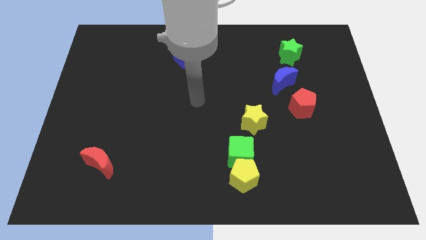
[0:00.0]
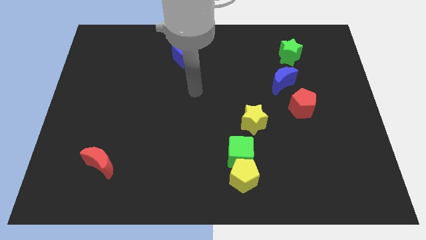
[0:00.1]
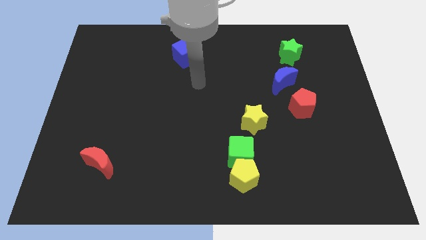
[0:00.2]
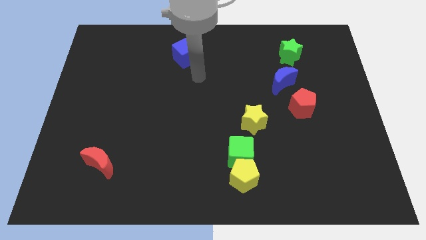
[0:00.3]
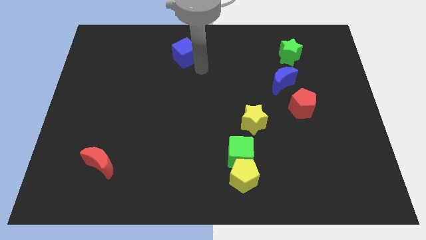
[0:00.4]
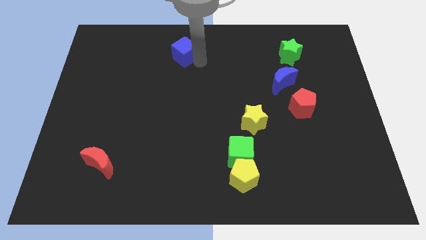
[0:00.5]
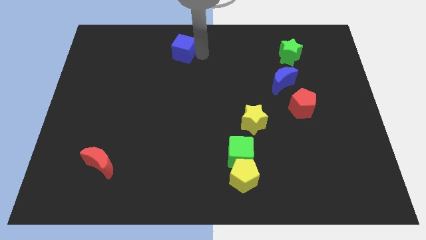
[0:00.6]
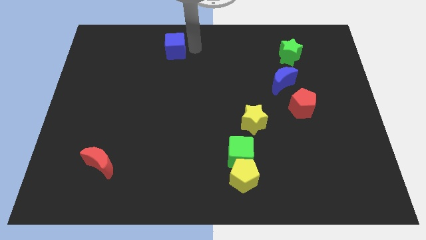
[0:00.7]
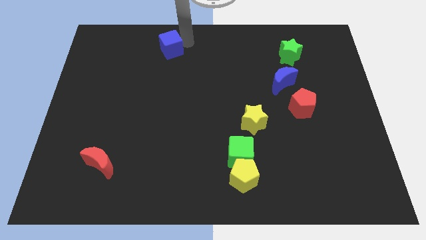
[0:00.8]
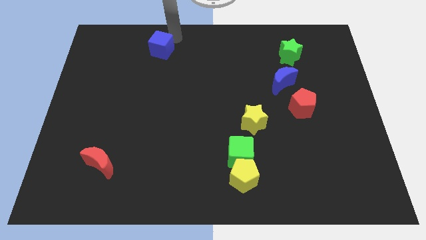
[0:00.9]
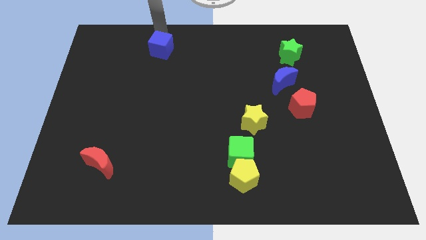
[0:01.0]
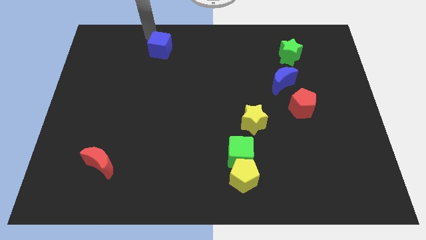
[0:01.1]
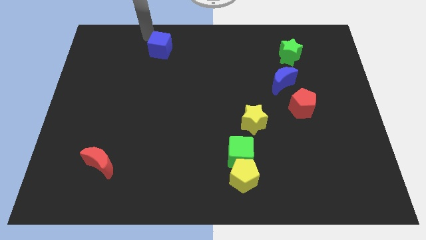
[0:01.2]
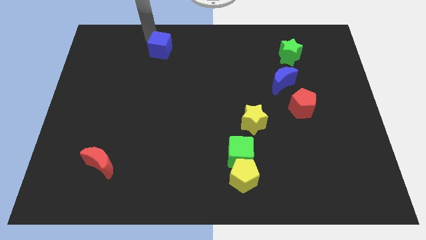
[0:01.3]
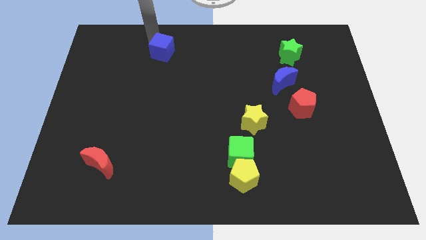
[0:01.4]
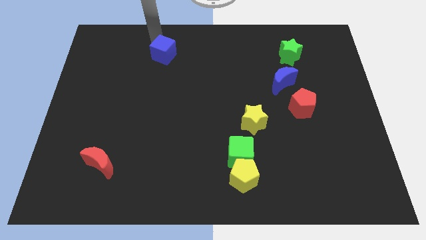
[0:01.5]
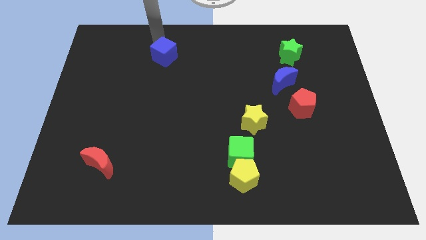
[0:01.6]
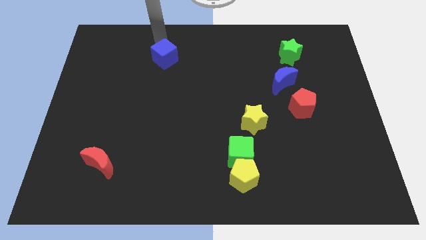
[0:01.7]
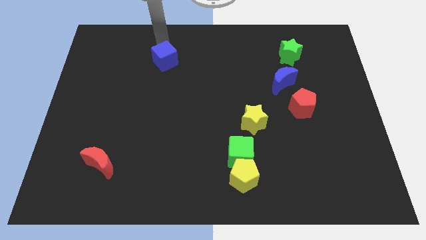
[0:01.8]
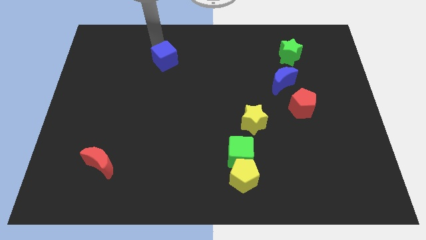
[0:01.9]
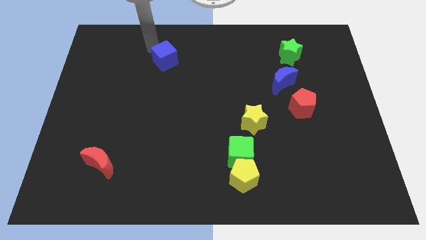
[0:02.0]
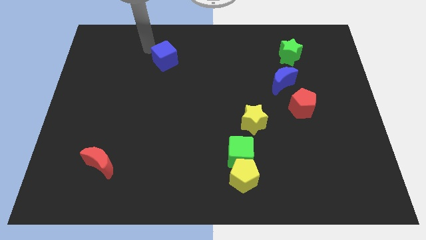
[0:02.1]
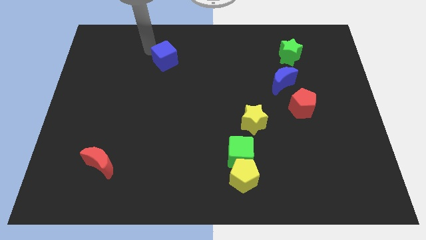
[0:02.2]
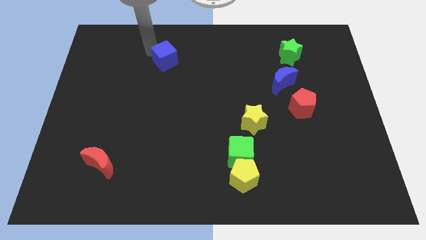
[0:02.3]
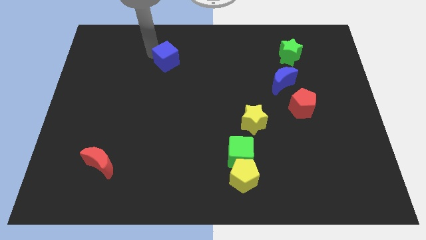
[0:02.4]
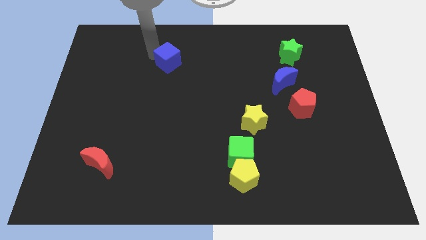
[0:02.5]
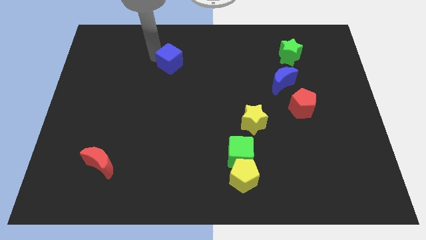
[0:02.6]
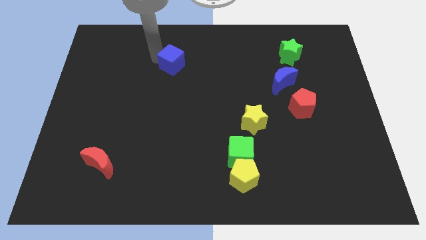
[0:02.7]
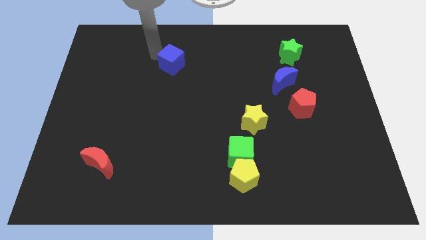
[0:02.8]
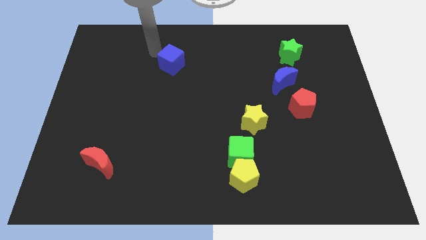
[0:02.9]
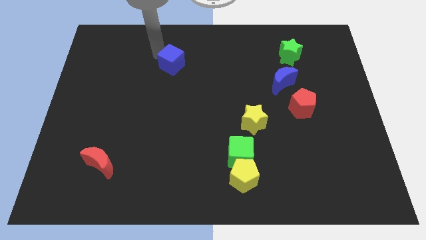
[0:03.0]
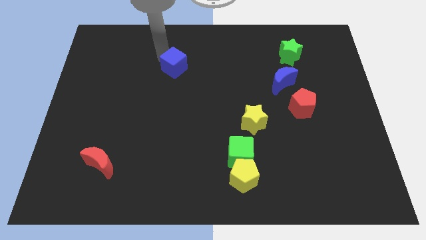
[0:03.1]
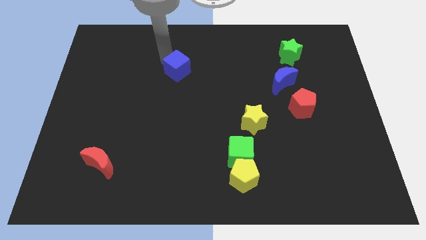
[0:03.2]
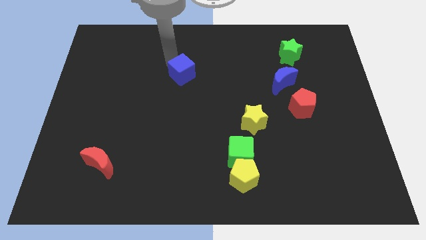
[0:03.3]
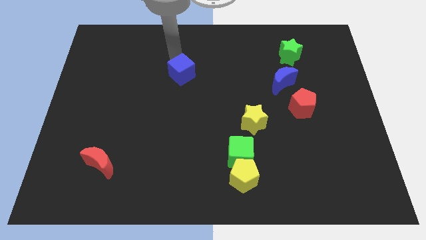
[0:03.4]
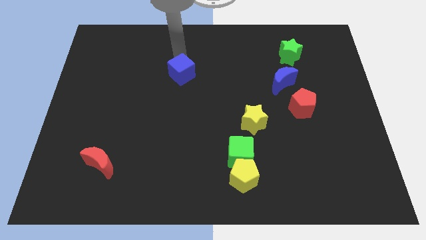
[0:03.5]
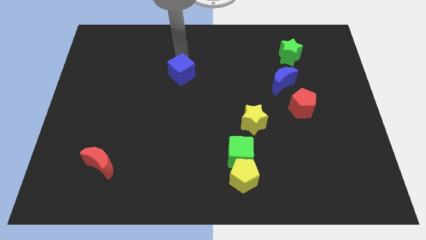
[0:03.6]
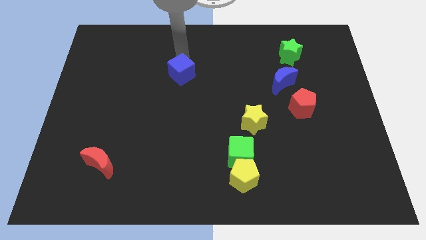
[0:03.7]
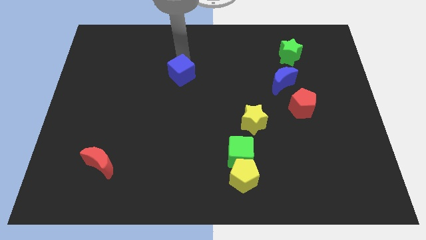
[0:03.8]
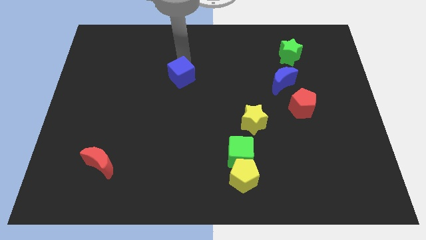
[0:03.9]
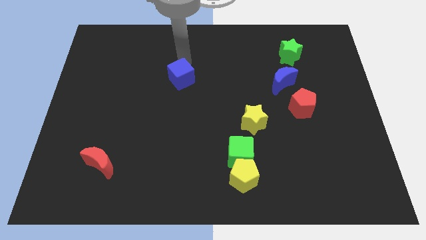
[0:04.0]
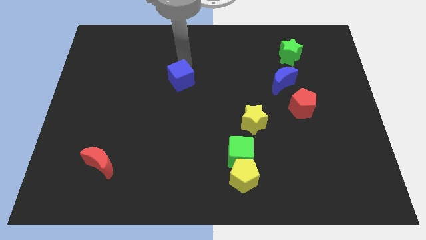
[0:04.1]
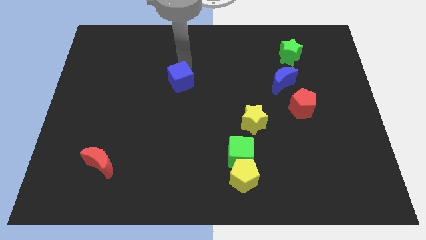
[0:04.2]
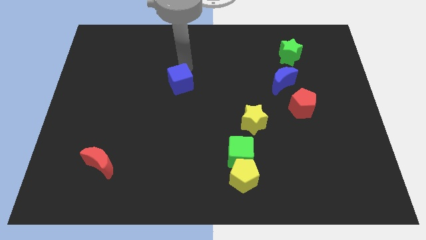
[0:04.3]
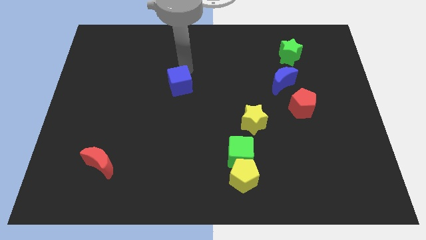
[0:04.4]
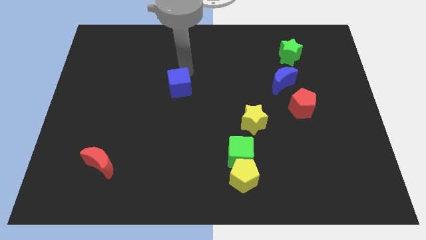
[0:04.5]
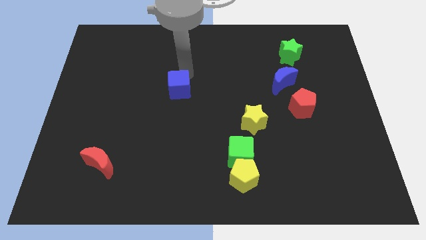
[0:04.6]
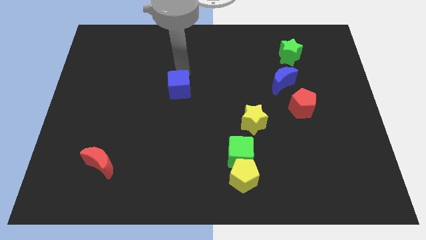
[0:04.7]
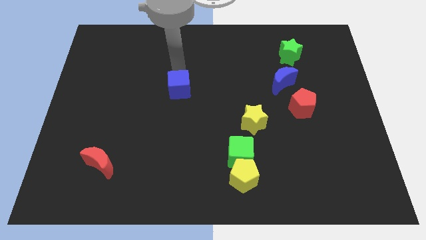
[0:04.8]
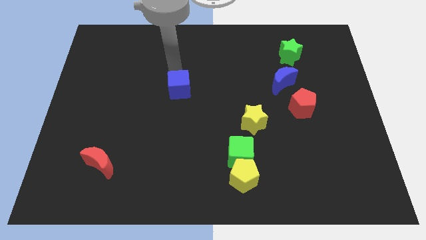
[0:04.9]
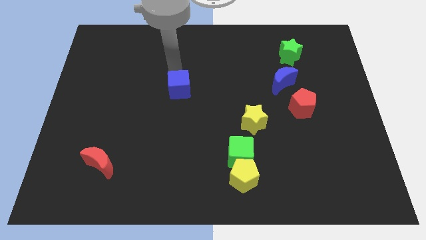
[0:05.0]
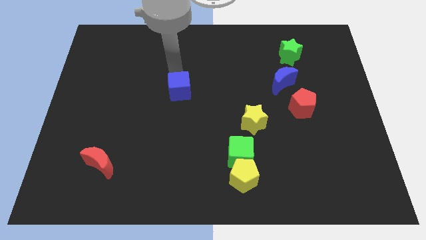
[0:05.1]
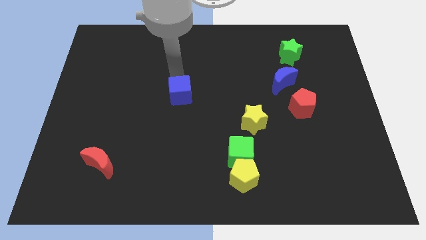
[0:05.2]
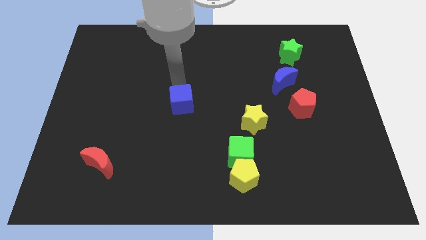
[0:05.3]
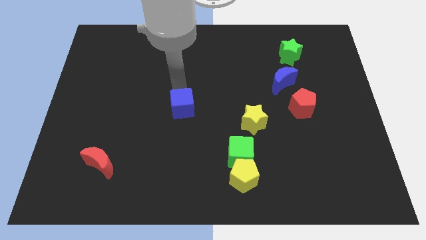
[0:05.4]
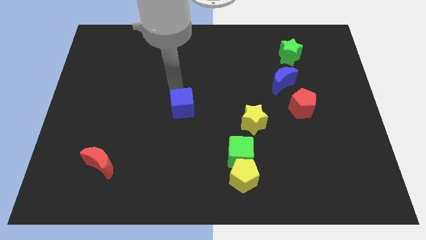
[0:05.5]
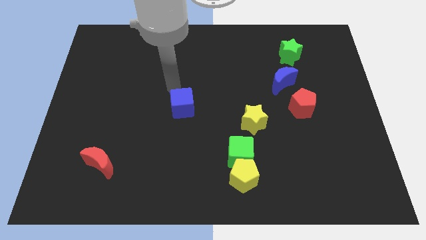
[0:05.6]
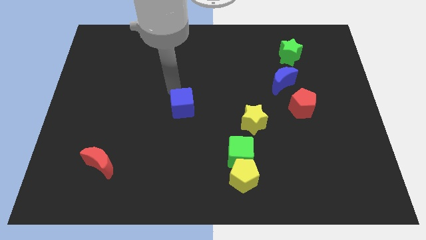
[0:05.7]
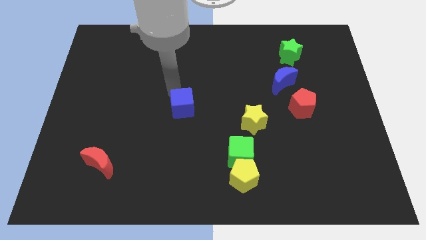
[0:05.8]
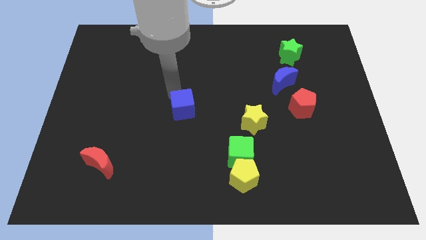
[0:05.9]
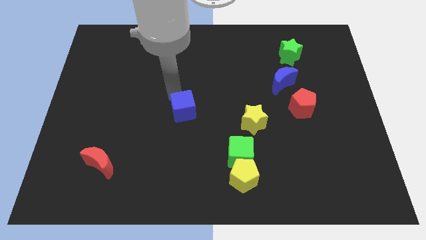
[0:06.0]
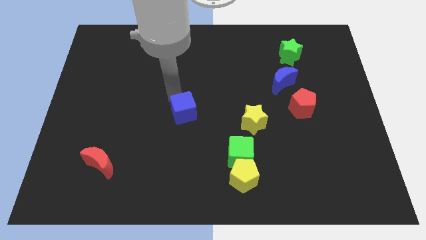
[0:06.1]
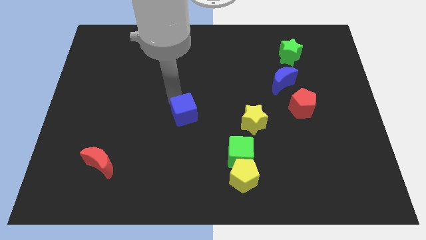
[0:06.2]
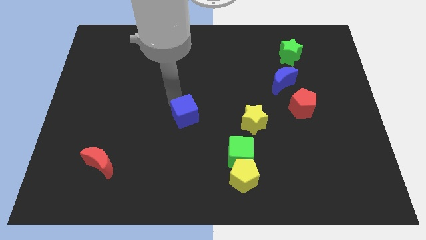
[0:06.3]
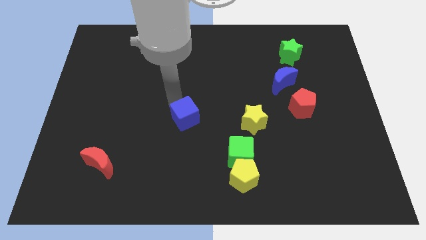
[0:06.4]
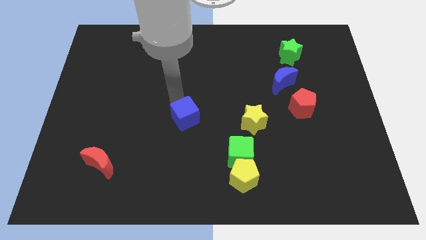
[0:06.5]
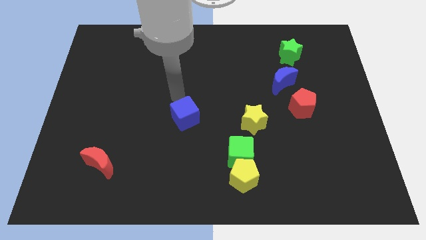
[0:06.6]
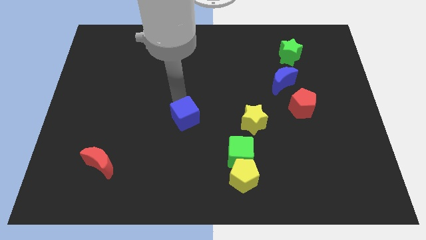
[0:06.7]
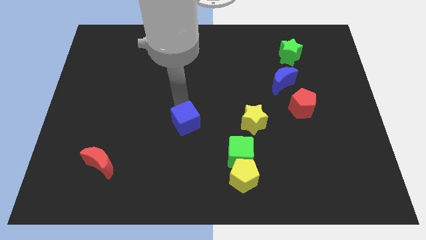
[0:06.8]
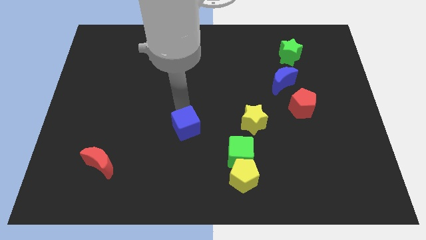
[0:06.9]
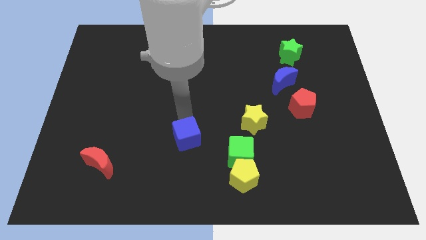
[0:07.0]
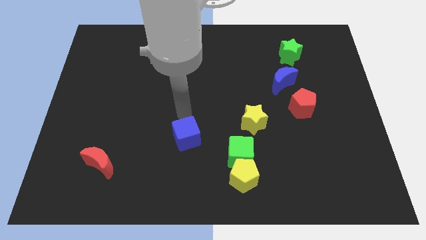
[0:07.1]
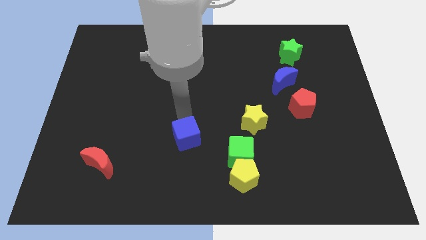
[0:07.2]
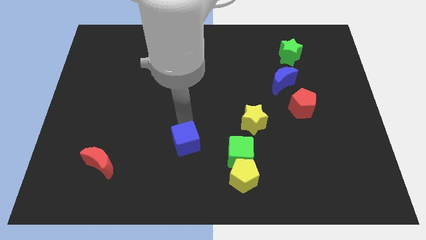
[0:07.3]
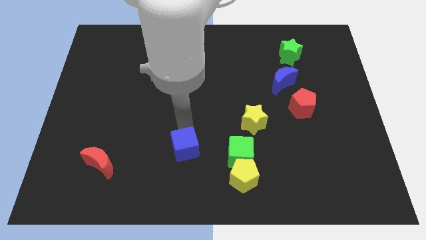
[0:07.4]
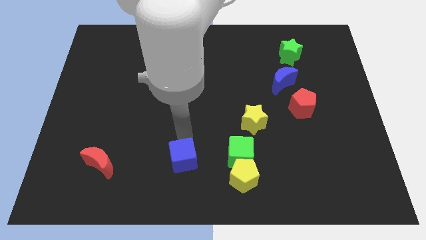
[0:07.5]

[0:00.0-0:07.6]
move the blue cube to the bottom side
